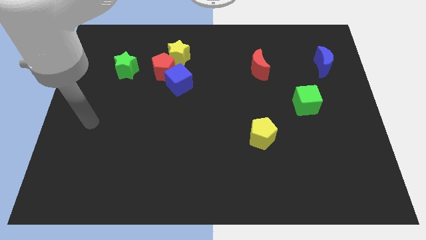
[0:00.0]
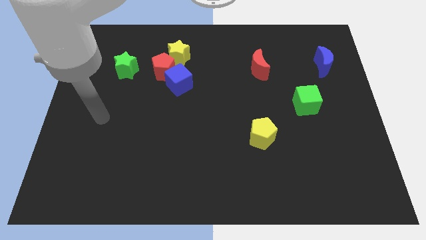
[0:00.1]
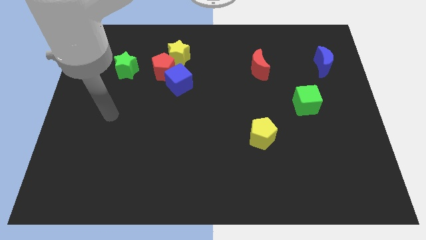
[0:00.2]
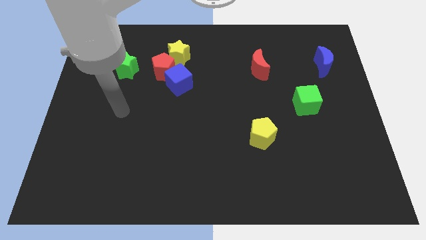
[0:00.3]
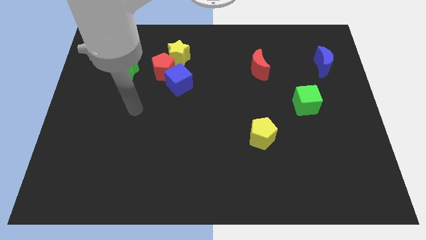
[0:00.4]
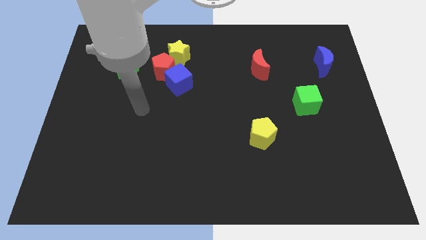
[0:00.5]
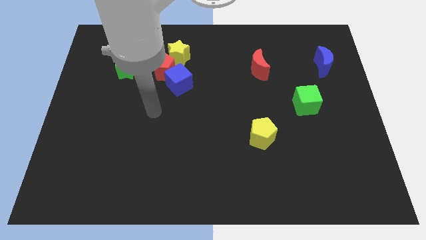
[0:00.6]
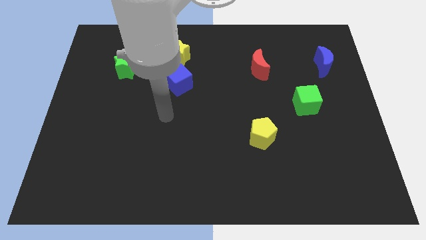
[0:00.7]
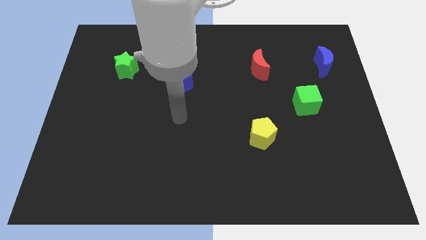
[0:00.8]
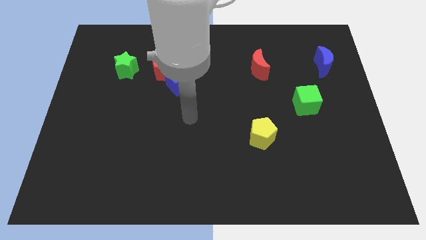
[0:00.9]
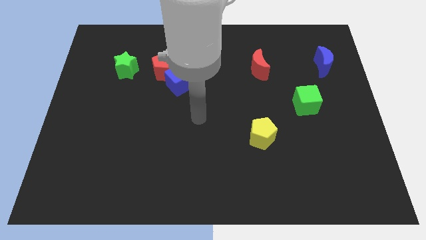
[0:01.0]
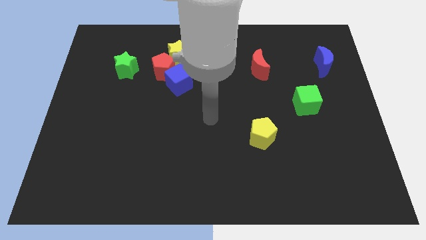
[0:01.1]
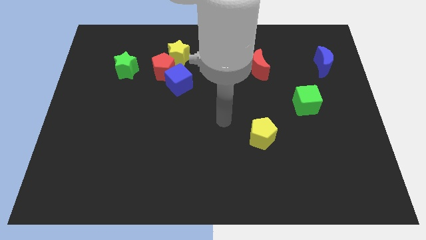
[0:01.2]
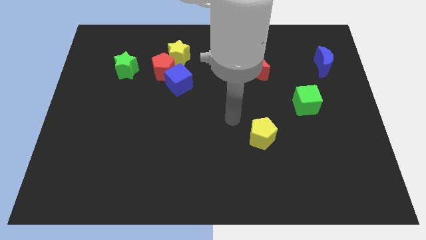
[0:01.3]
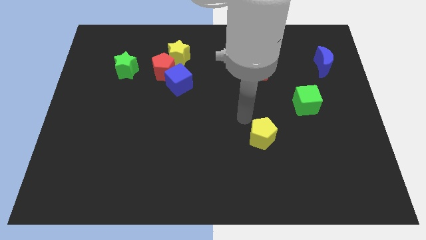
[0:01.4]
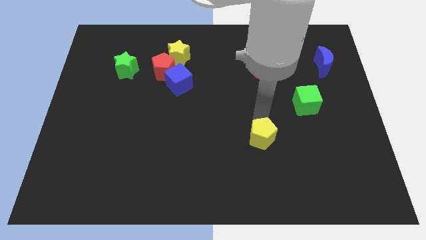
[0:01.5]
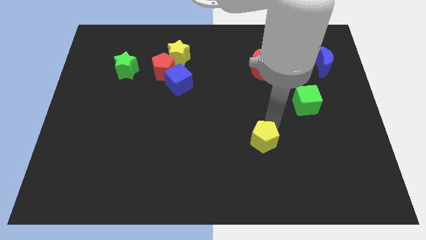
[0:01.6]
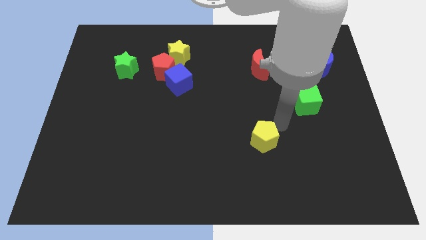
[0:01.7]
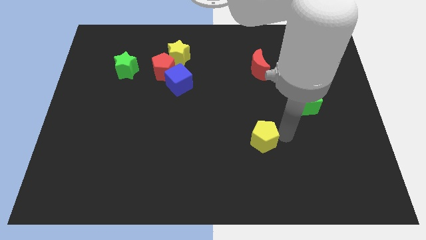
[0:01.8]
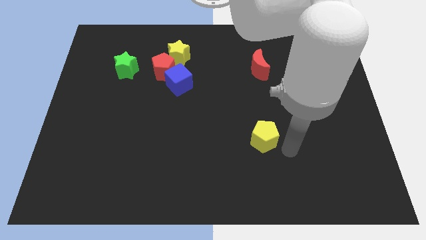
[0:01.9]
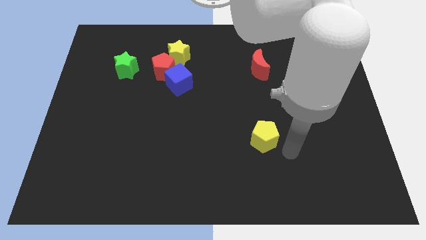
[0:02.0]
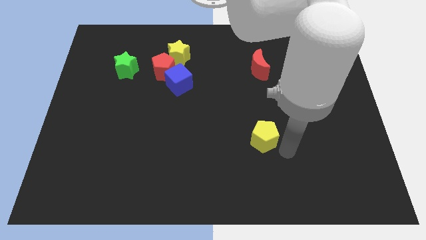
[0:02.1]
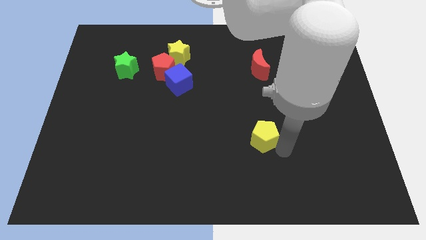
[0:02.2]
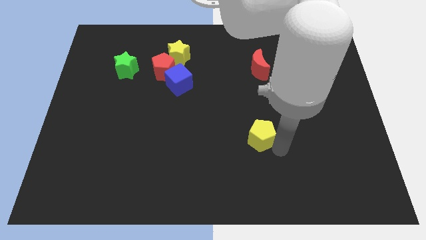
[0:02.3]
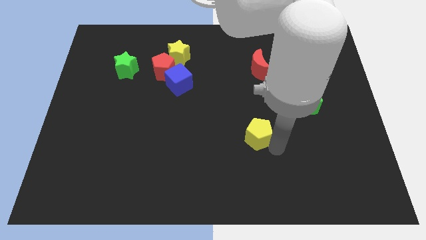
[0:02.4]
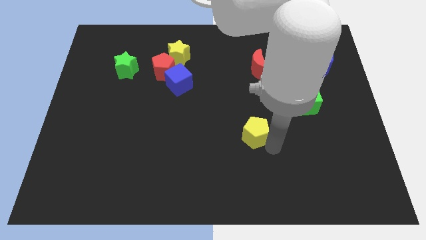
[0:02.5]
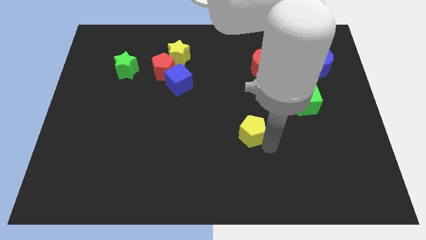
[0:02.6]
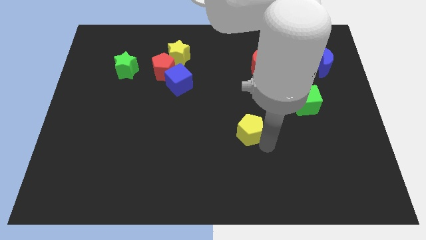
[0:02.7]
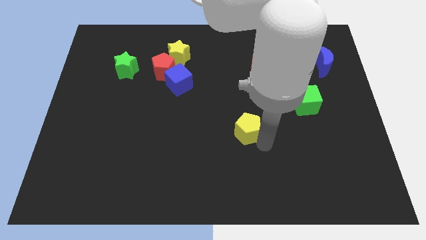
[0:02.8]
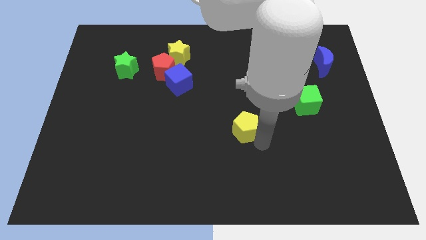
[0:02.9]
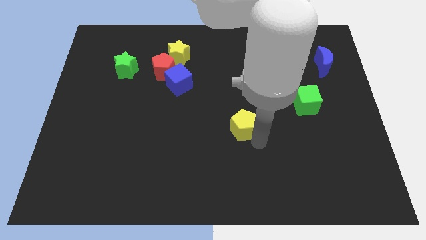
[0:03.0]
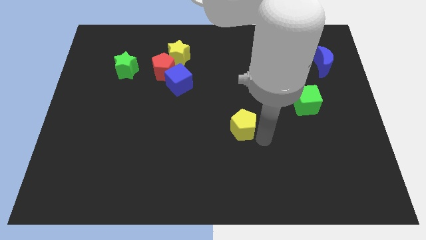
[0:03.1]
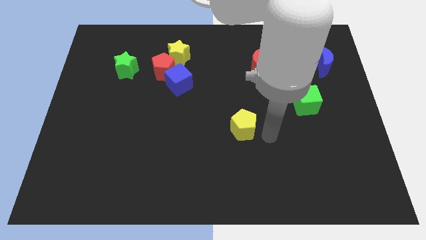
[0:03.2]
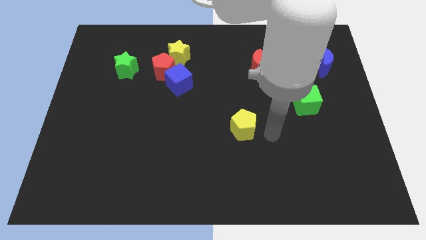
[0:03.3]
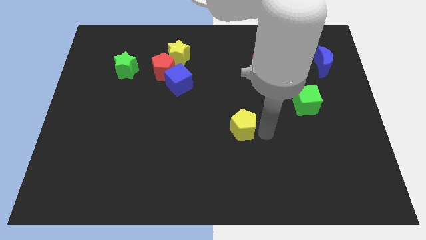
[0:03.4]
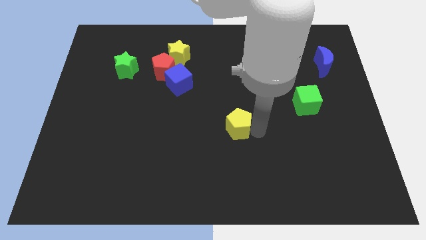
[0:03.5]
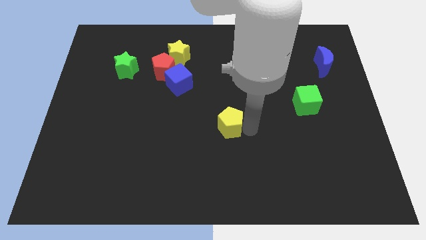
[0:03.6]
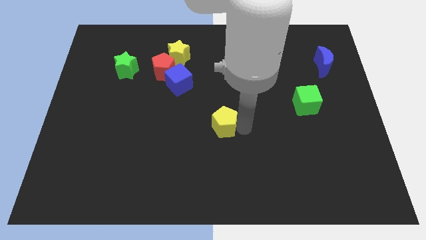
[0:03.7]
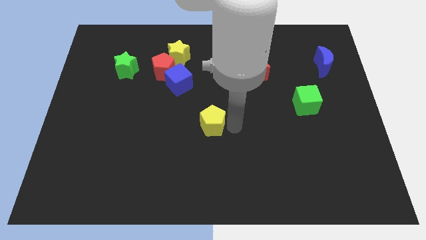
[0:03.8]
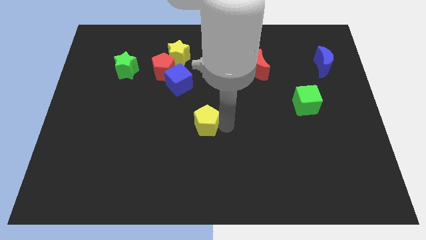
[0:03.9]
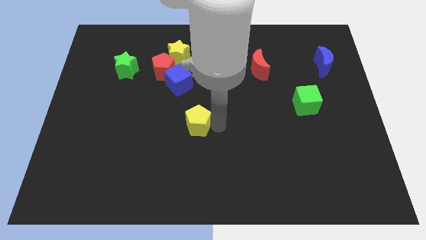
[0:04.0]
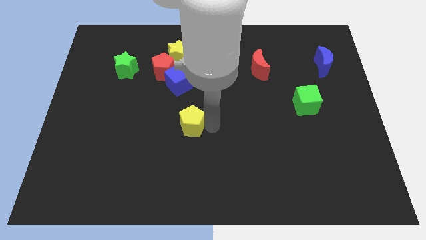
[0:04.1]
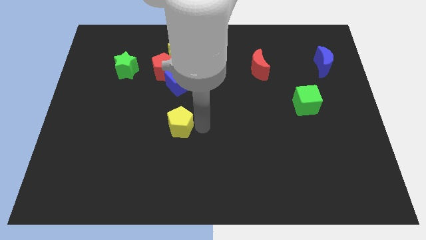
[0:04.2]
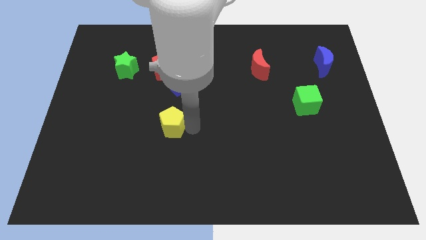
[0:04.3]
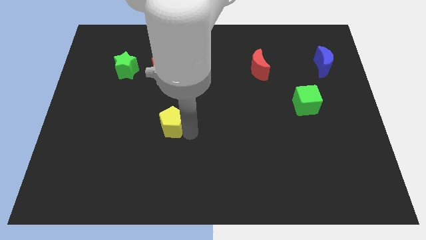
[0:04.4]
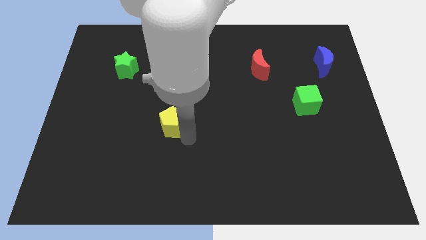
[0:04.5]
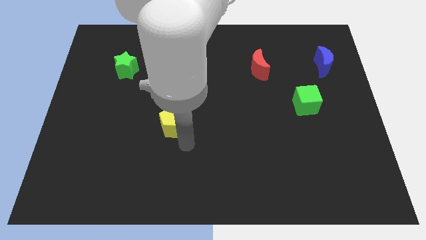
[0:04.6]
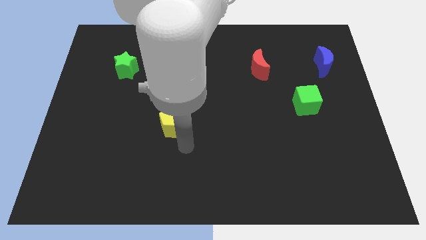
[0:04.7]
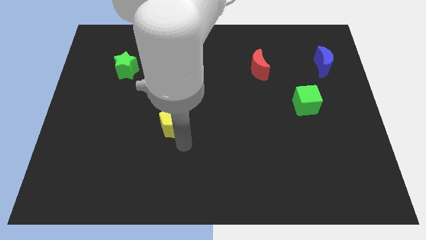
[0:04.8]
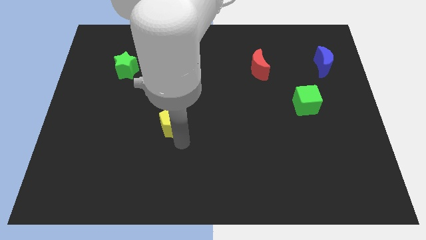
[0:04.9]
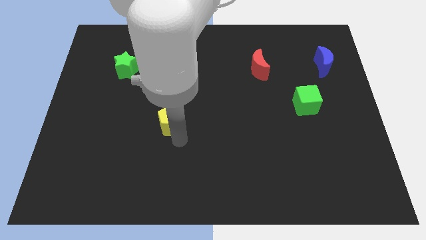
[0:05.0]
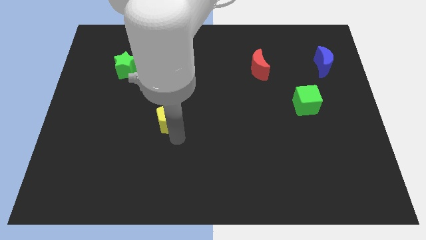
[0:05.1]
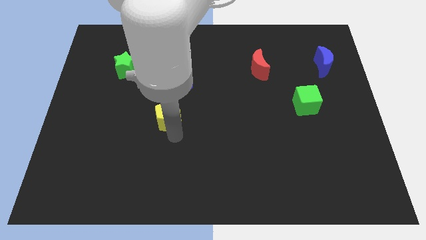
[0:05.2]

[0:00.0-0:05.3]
slide the yellow pentagon below the red pentagon

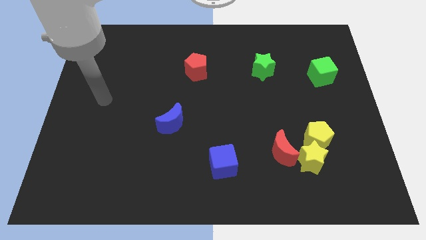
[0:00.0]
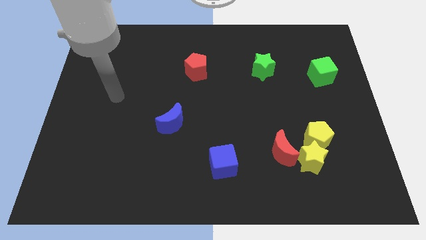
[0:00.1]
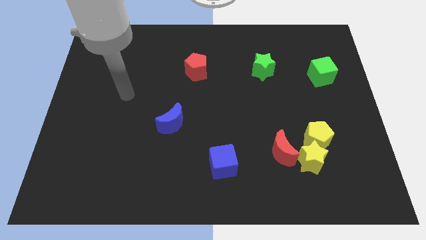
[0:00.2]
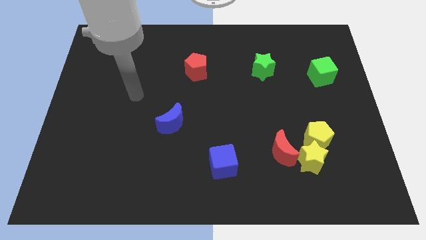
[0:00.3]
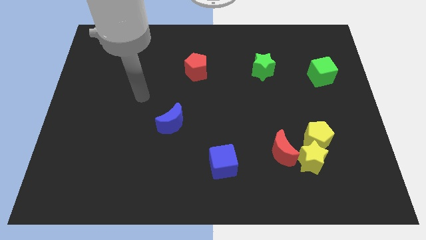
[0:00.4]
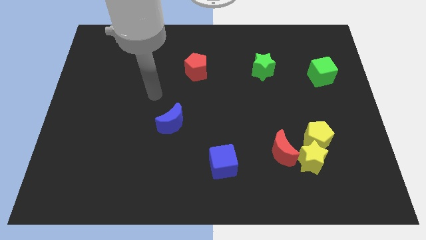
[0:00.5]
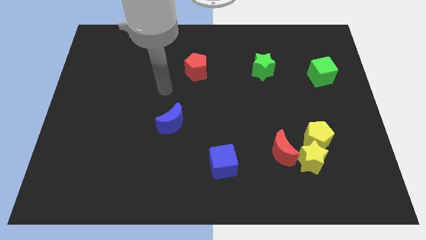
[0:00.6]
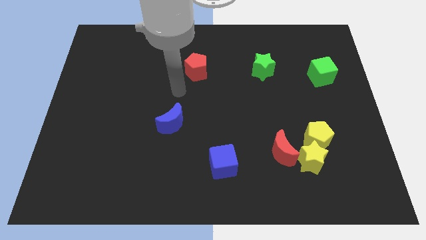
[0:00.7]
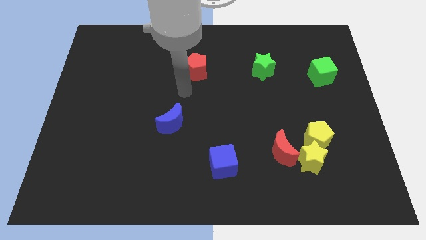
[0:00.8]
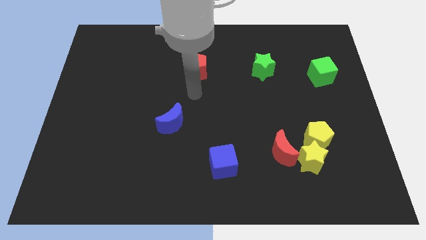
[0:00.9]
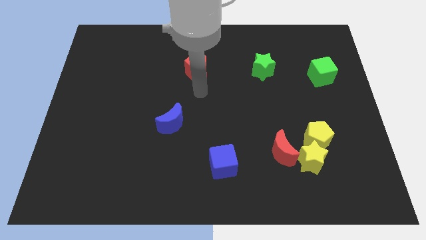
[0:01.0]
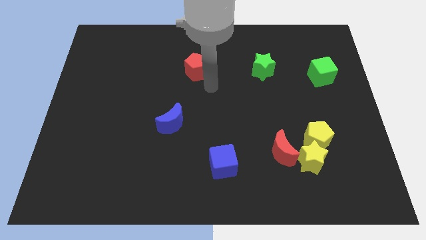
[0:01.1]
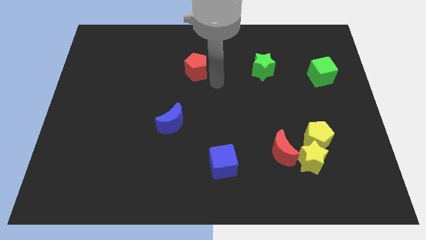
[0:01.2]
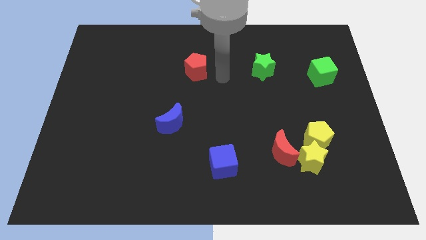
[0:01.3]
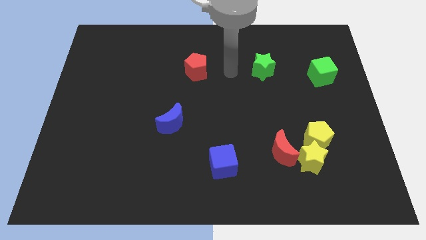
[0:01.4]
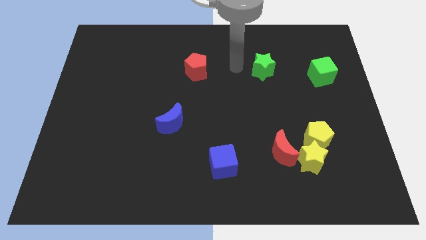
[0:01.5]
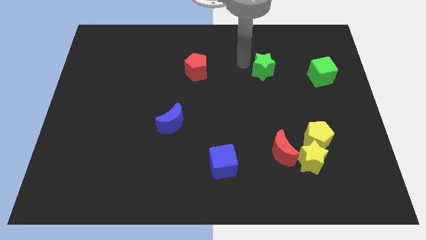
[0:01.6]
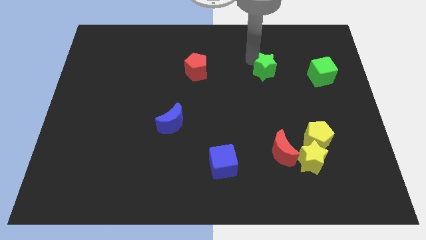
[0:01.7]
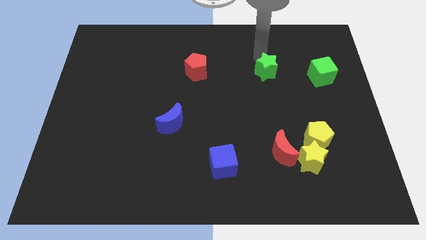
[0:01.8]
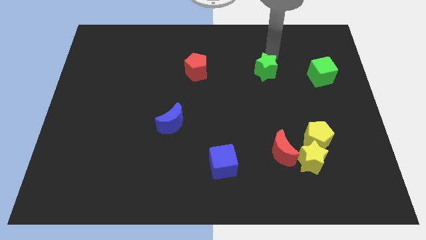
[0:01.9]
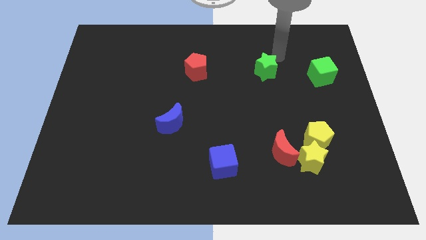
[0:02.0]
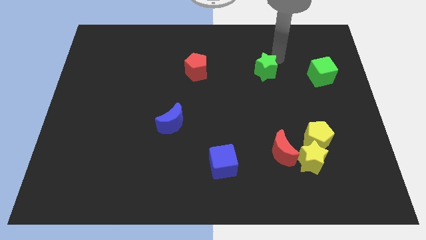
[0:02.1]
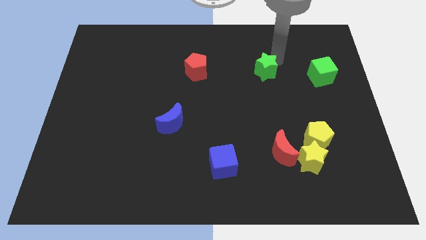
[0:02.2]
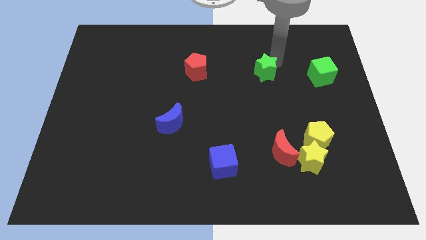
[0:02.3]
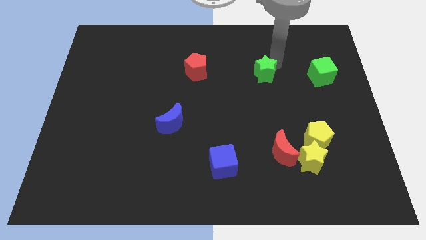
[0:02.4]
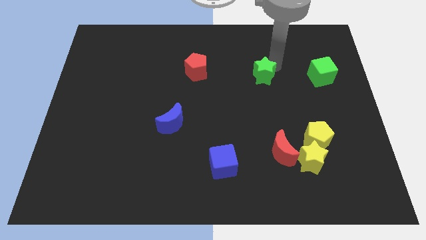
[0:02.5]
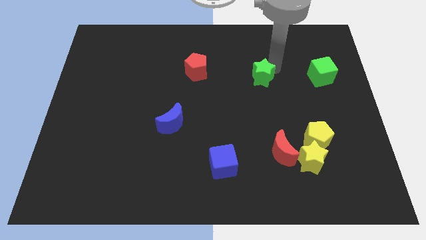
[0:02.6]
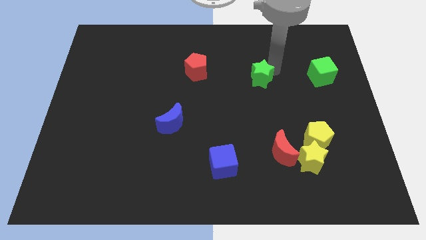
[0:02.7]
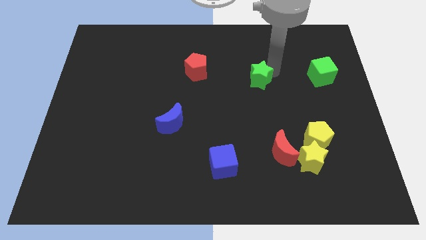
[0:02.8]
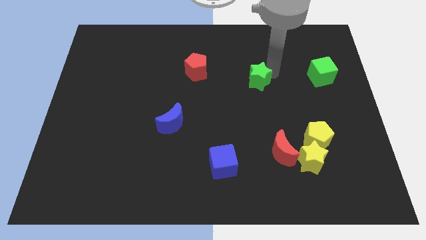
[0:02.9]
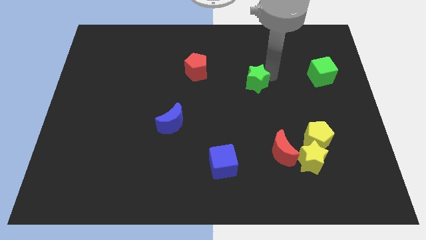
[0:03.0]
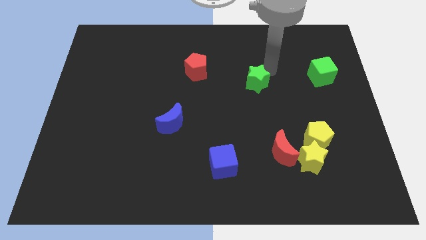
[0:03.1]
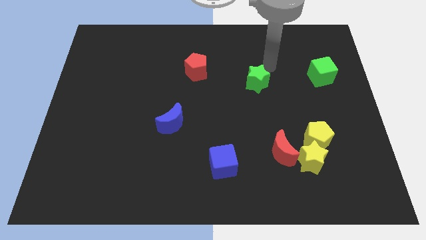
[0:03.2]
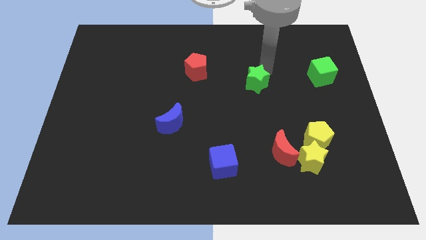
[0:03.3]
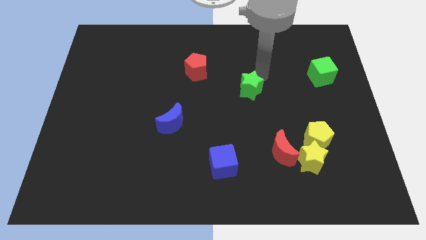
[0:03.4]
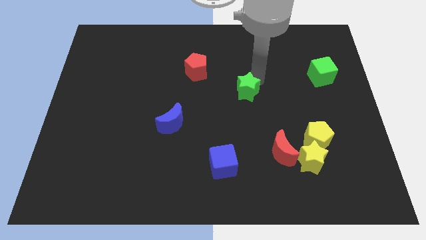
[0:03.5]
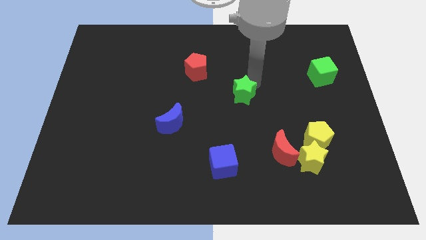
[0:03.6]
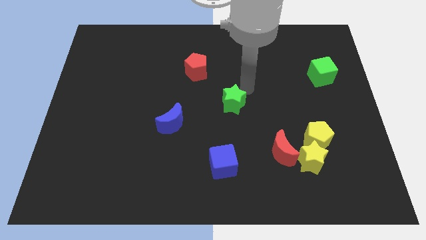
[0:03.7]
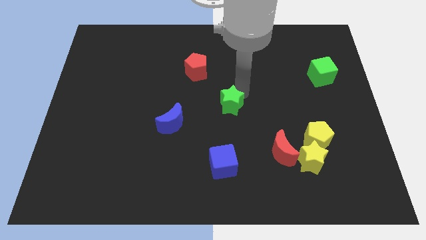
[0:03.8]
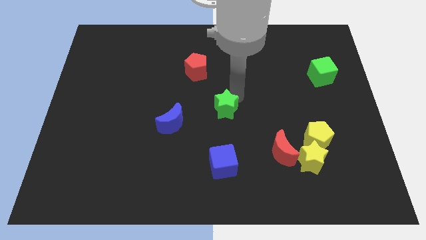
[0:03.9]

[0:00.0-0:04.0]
move the green star above the blue cube
